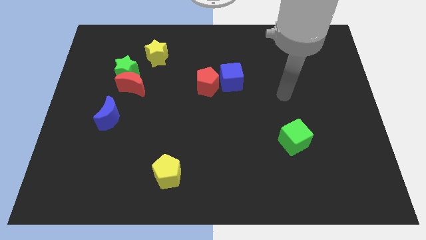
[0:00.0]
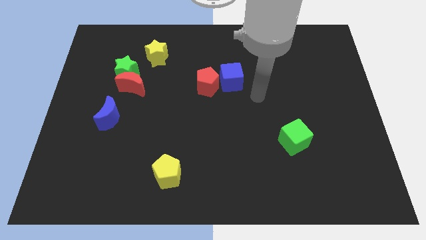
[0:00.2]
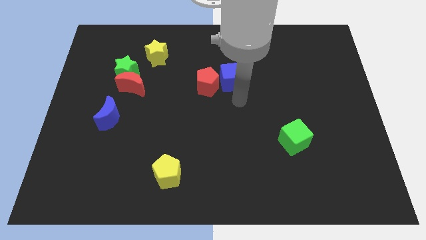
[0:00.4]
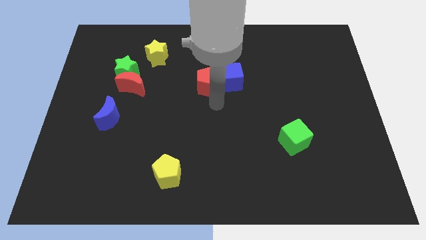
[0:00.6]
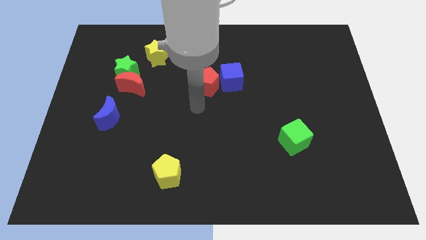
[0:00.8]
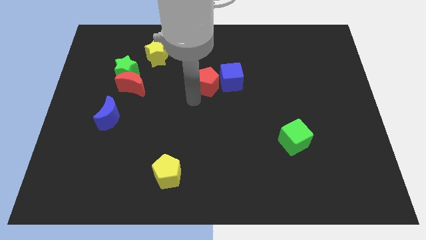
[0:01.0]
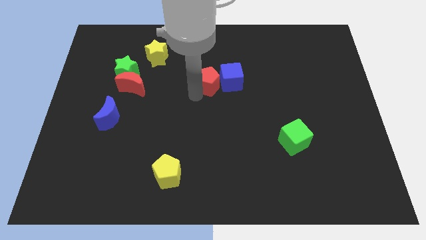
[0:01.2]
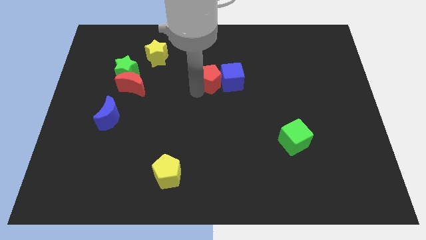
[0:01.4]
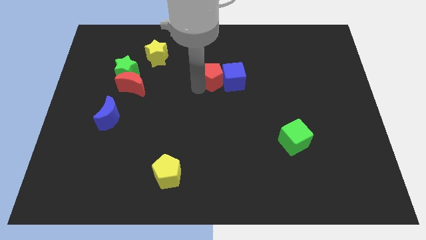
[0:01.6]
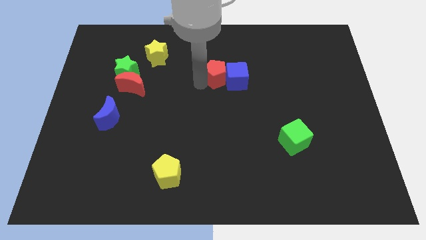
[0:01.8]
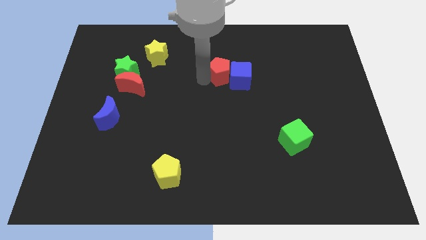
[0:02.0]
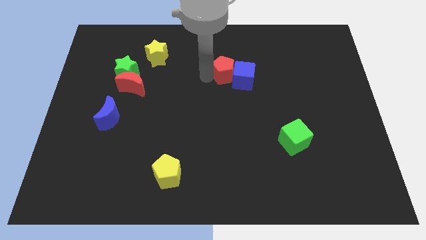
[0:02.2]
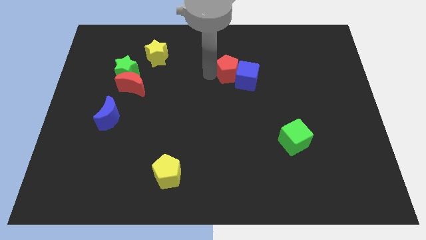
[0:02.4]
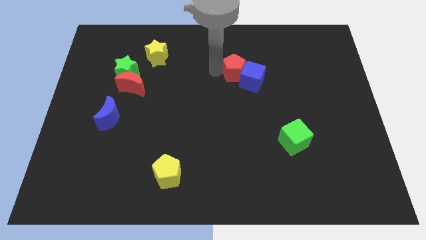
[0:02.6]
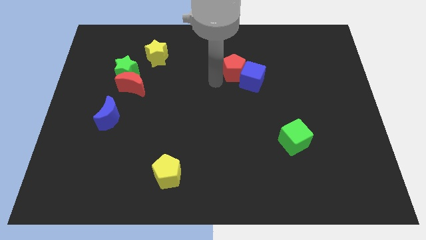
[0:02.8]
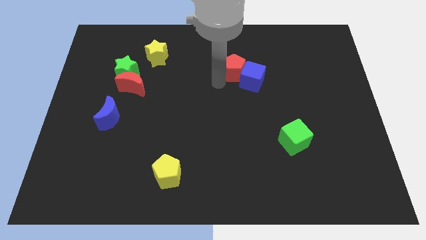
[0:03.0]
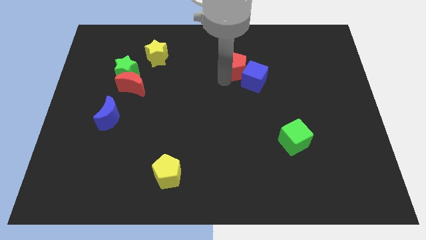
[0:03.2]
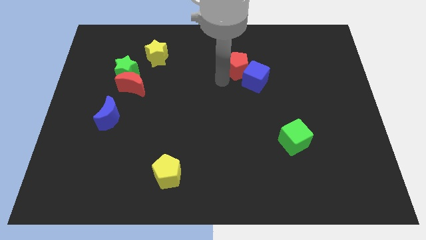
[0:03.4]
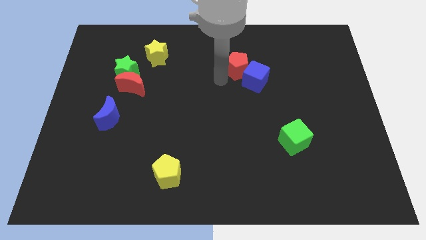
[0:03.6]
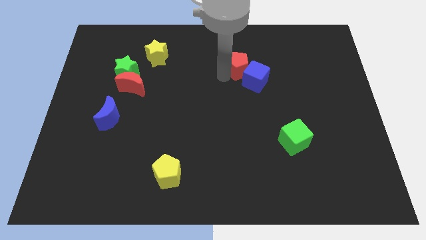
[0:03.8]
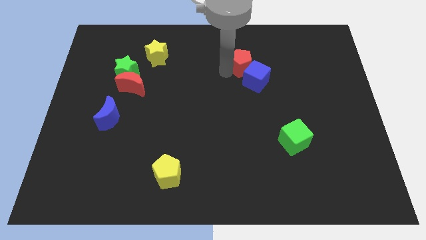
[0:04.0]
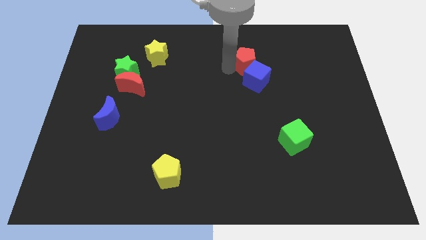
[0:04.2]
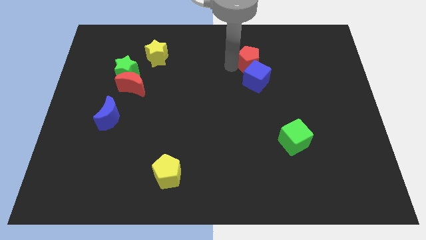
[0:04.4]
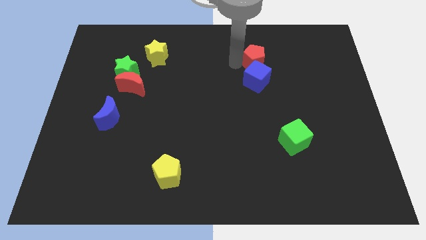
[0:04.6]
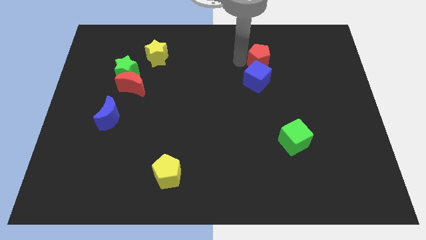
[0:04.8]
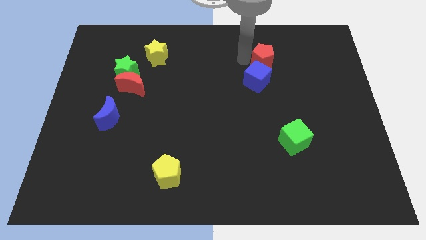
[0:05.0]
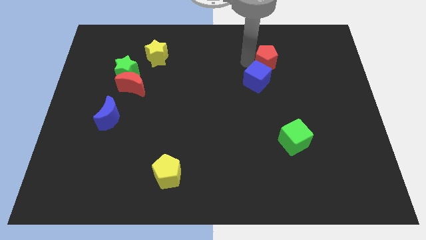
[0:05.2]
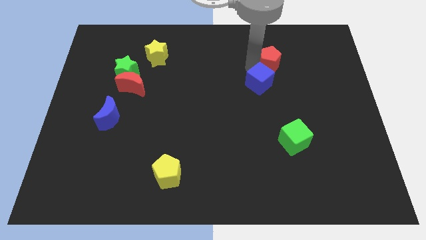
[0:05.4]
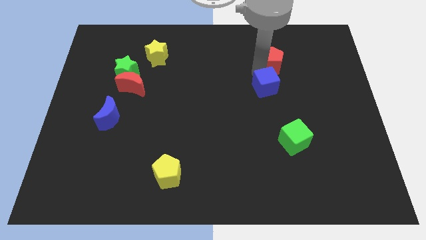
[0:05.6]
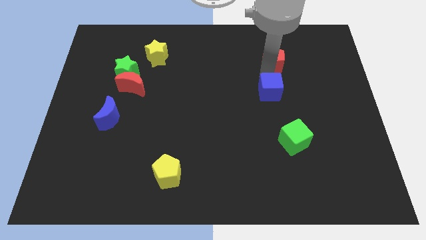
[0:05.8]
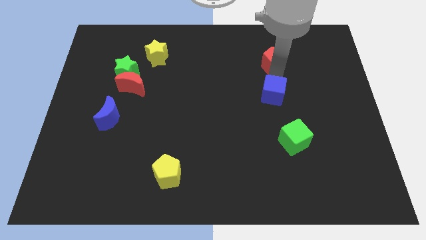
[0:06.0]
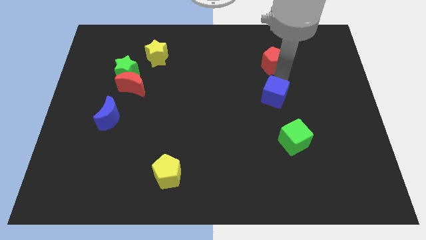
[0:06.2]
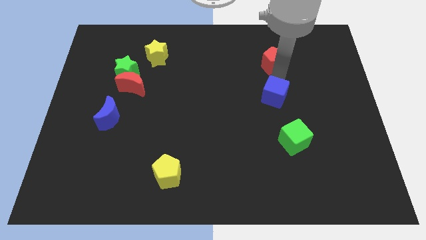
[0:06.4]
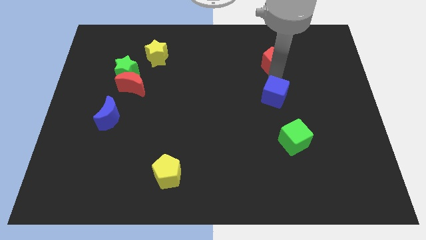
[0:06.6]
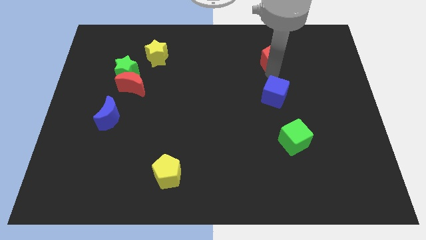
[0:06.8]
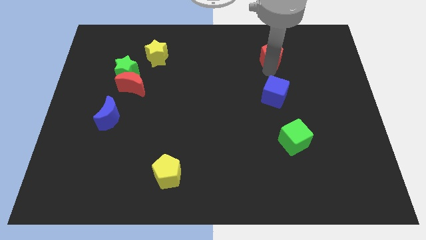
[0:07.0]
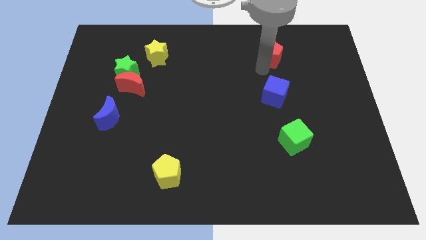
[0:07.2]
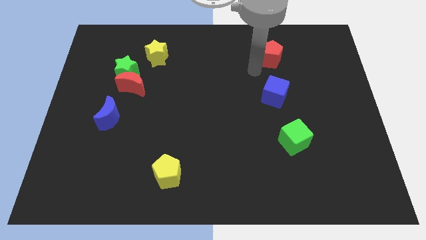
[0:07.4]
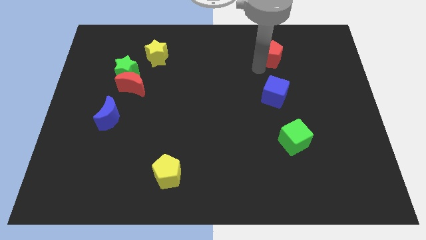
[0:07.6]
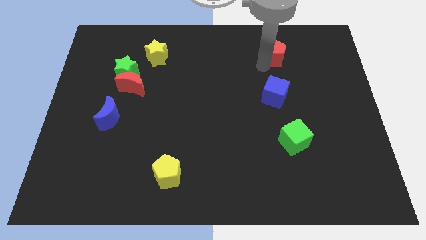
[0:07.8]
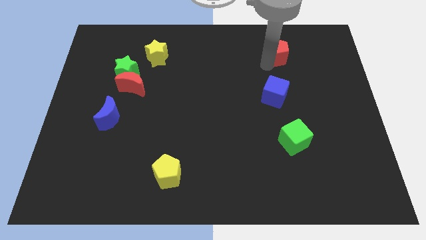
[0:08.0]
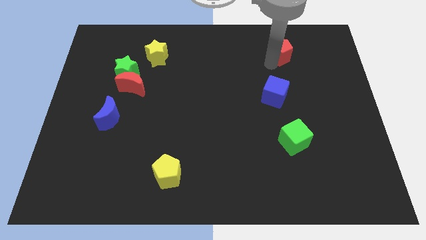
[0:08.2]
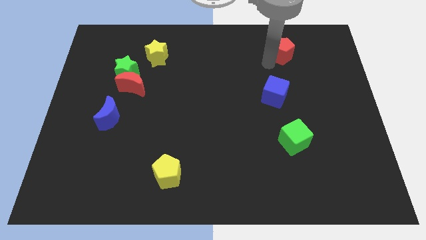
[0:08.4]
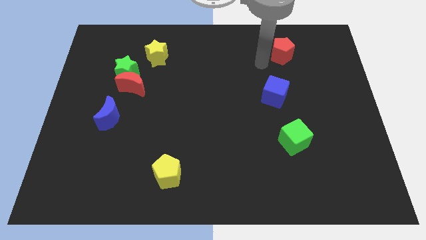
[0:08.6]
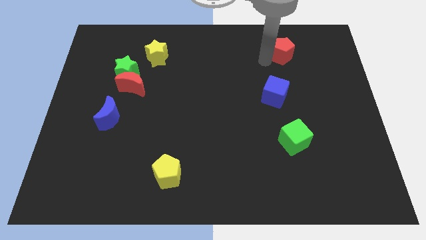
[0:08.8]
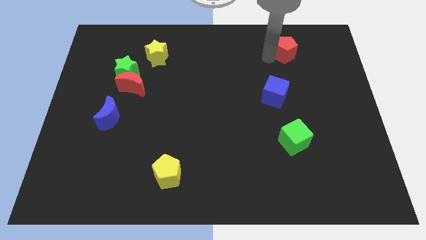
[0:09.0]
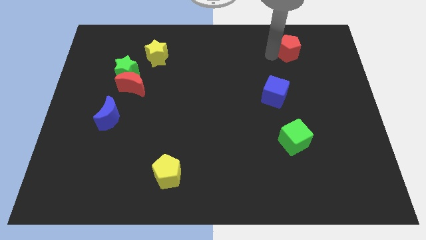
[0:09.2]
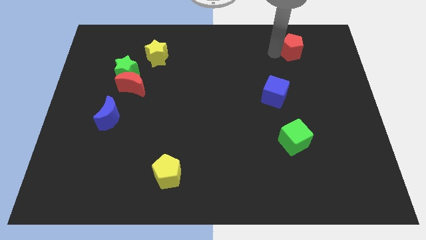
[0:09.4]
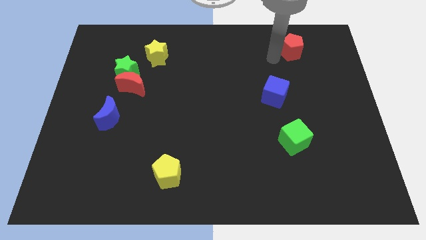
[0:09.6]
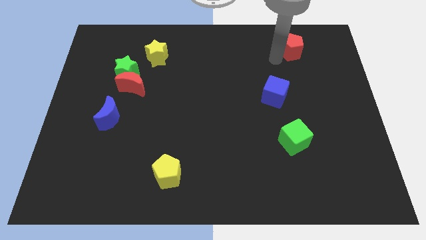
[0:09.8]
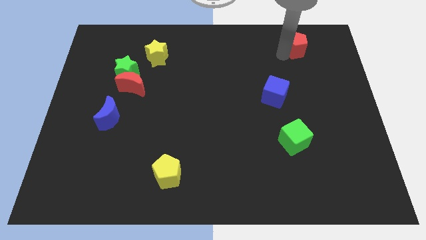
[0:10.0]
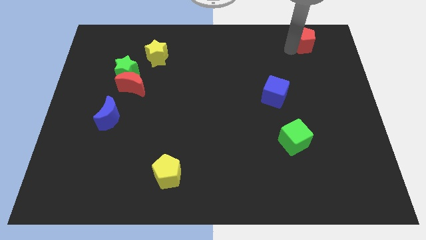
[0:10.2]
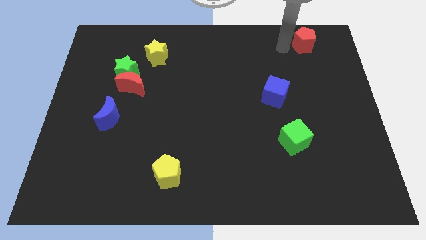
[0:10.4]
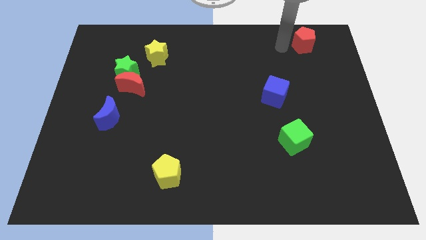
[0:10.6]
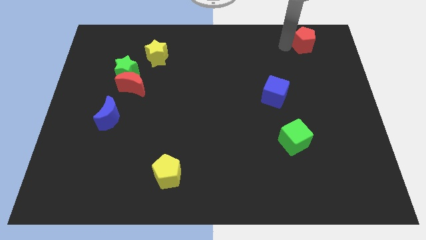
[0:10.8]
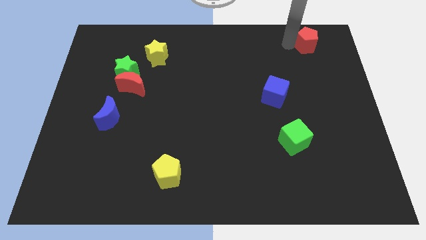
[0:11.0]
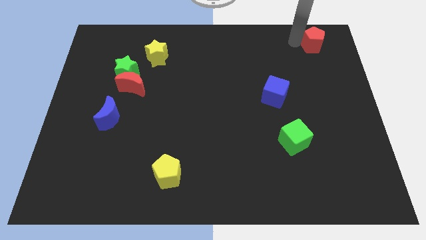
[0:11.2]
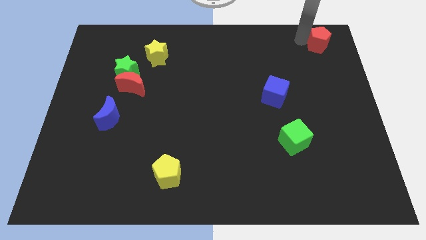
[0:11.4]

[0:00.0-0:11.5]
push the red pentagon to the top right corner

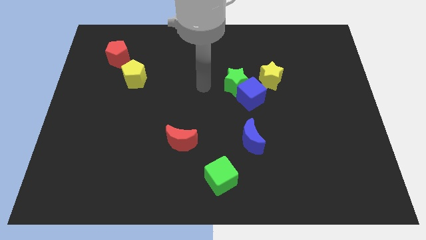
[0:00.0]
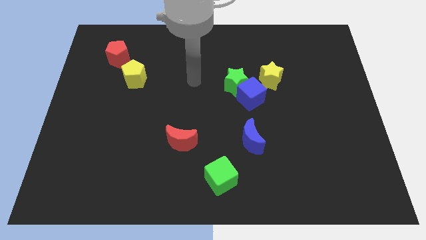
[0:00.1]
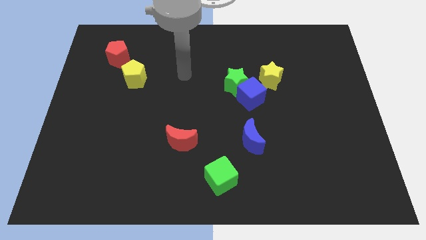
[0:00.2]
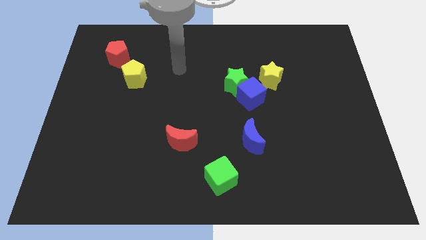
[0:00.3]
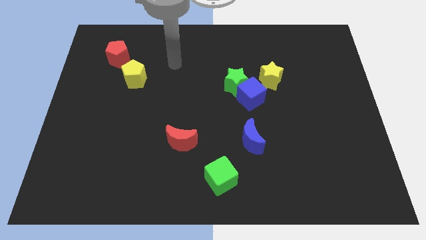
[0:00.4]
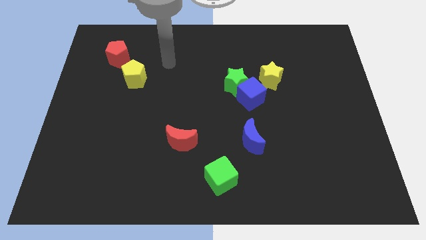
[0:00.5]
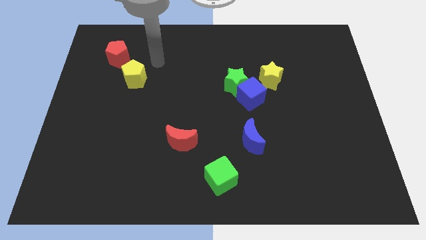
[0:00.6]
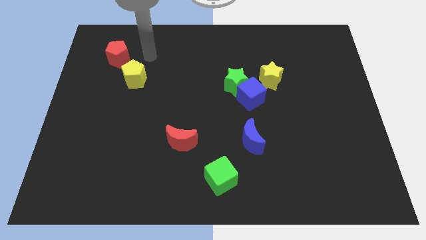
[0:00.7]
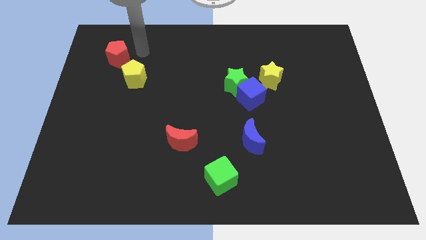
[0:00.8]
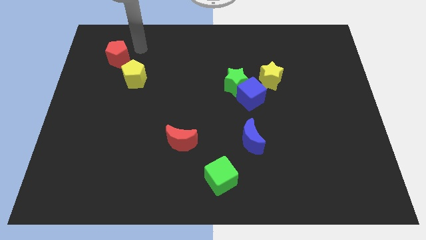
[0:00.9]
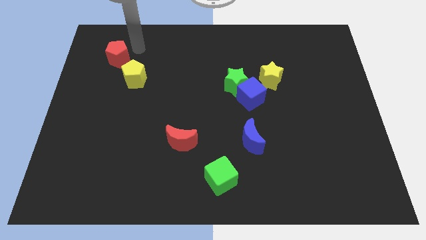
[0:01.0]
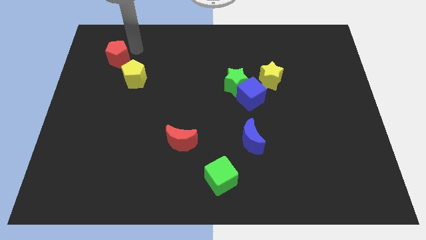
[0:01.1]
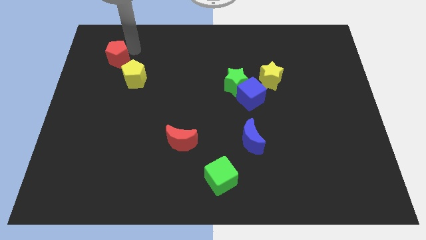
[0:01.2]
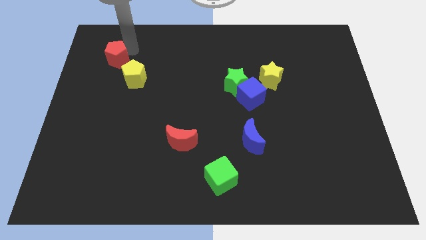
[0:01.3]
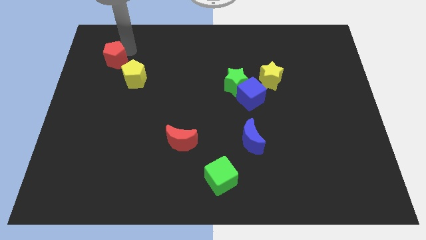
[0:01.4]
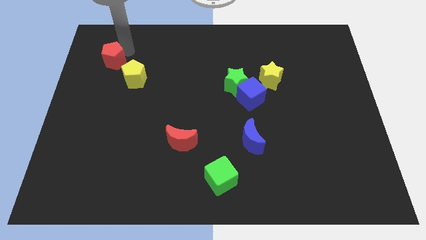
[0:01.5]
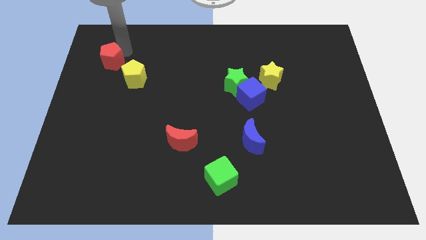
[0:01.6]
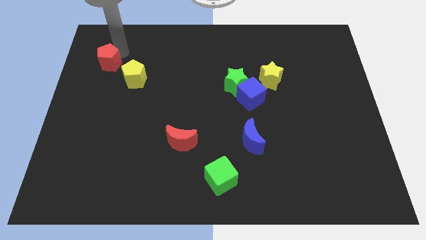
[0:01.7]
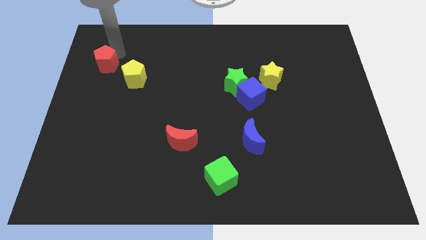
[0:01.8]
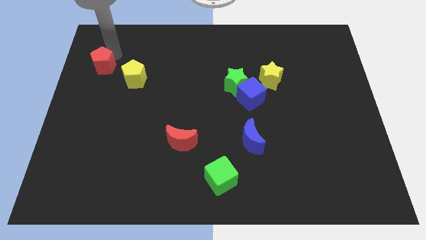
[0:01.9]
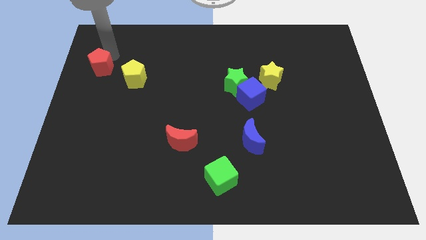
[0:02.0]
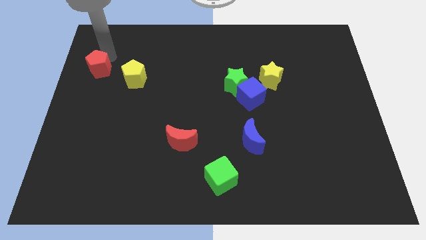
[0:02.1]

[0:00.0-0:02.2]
slide the red pentagon to the left side of the board
